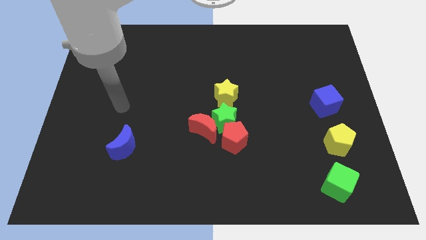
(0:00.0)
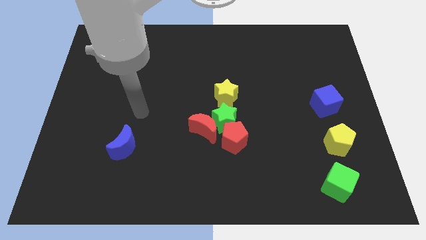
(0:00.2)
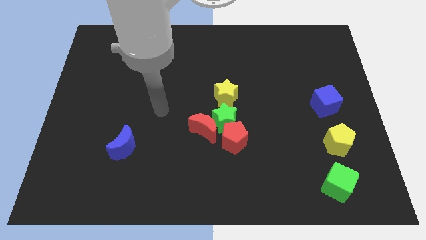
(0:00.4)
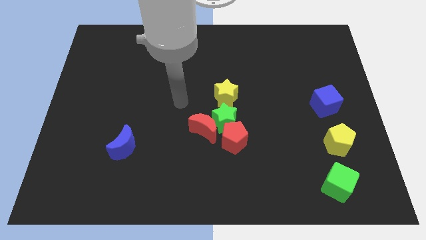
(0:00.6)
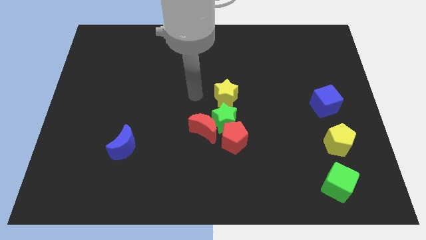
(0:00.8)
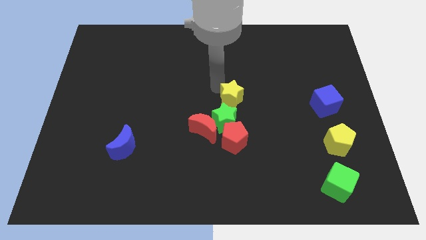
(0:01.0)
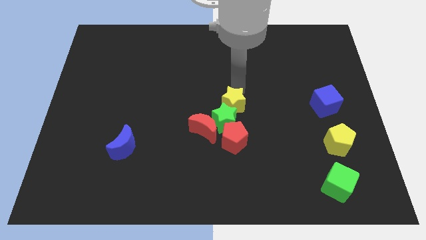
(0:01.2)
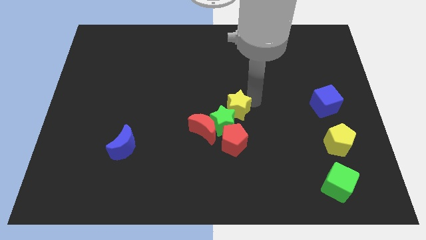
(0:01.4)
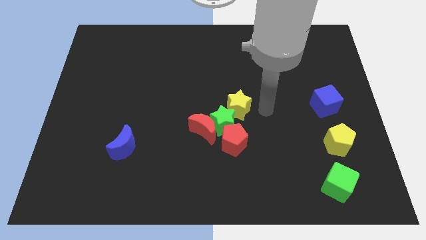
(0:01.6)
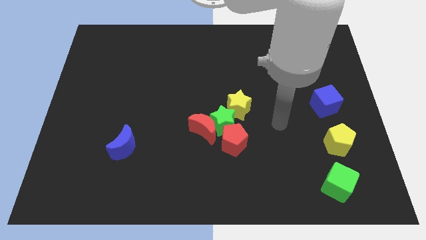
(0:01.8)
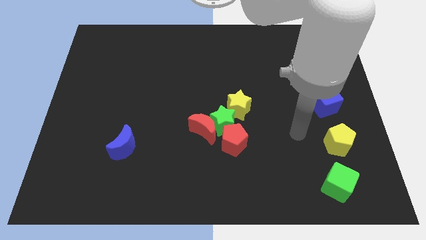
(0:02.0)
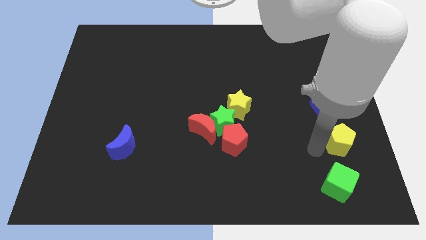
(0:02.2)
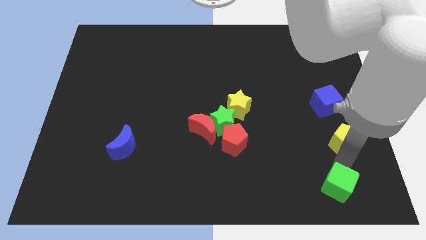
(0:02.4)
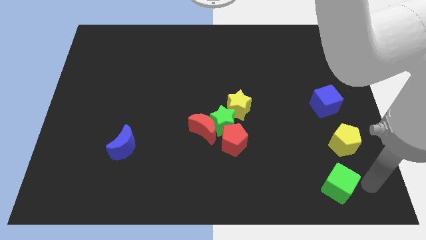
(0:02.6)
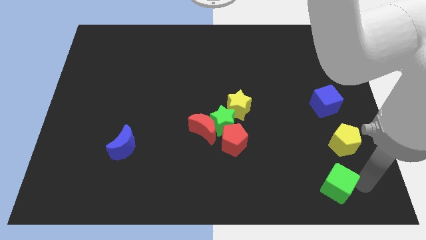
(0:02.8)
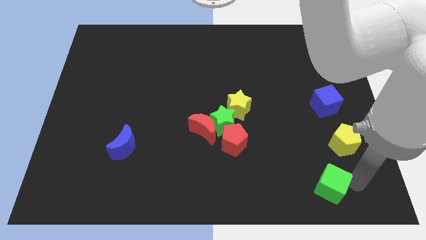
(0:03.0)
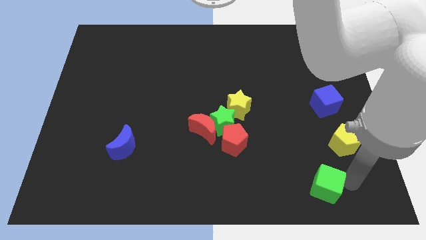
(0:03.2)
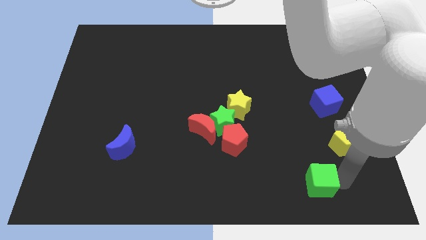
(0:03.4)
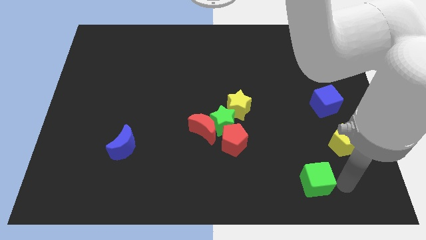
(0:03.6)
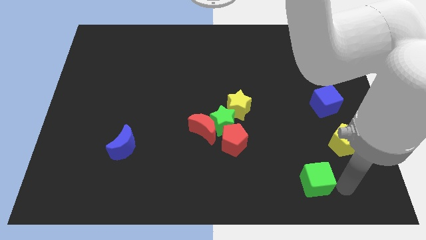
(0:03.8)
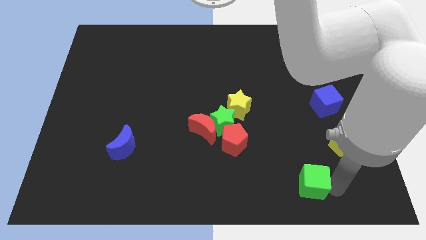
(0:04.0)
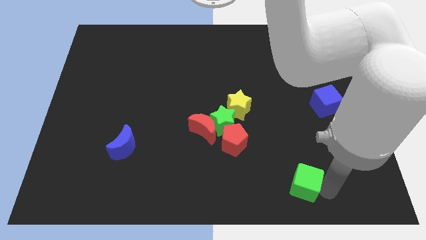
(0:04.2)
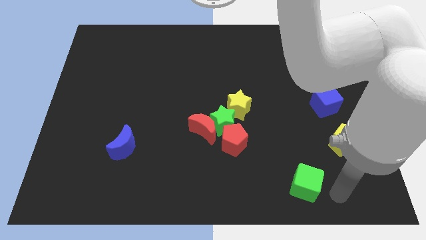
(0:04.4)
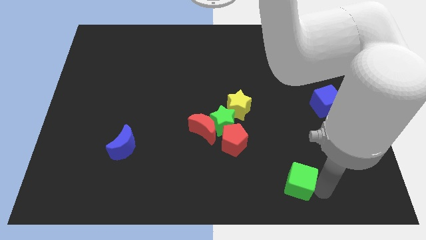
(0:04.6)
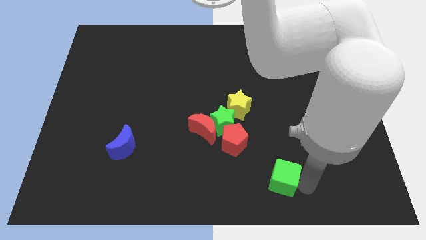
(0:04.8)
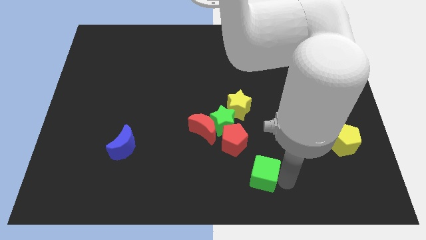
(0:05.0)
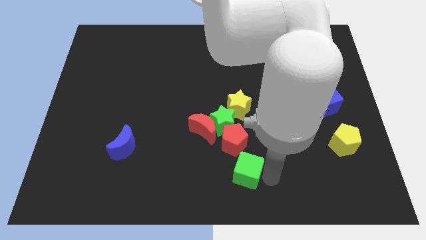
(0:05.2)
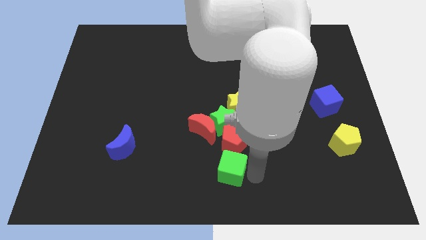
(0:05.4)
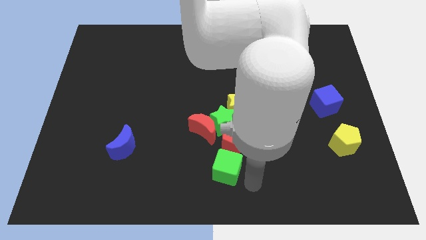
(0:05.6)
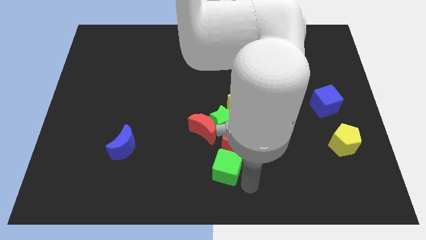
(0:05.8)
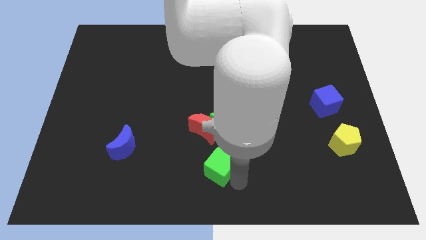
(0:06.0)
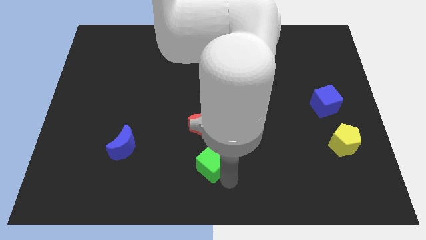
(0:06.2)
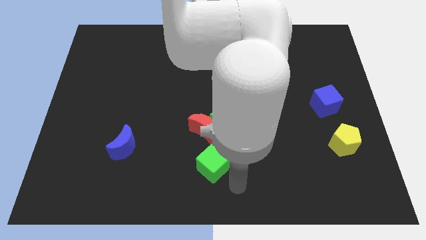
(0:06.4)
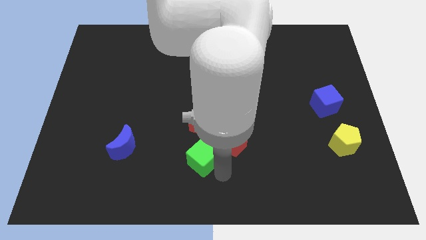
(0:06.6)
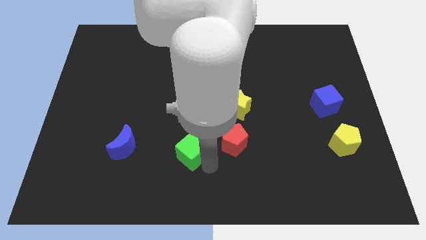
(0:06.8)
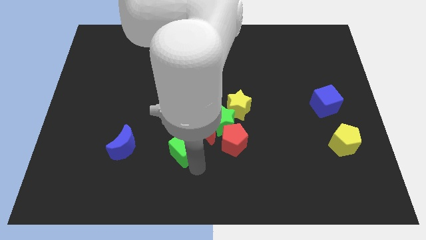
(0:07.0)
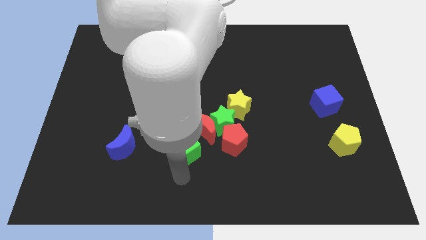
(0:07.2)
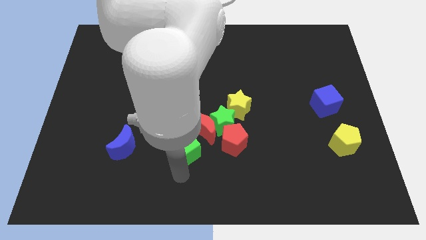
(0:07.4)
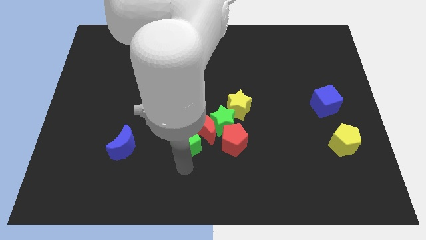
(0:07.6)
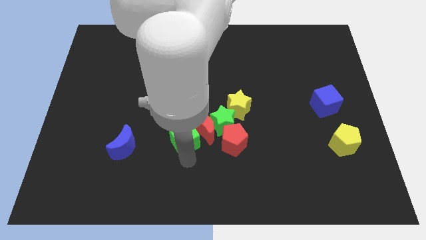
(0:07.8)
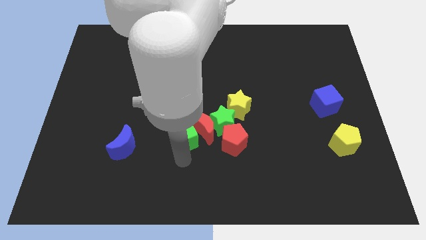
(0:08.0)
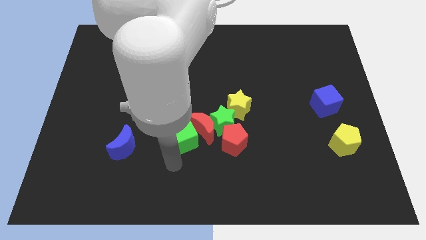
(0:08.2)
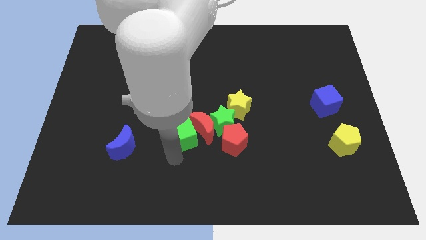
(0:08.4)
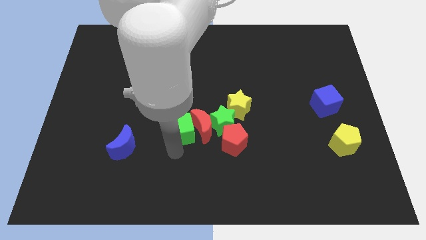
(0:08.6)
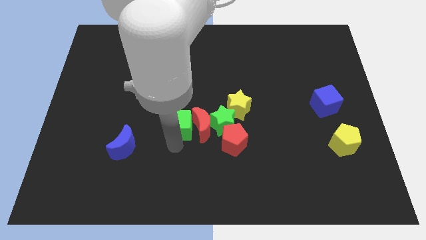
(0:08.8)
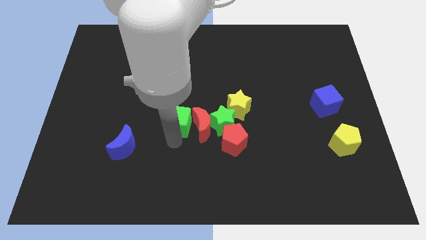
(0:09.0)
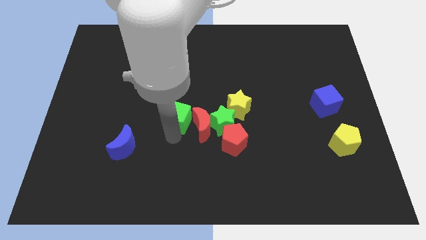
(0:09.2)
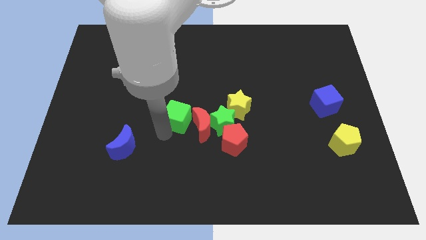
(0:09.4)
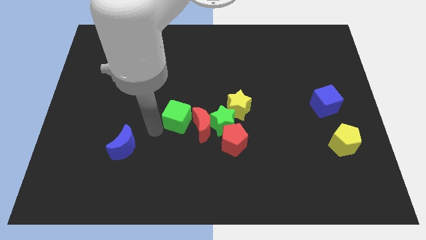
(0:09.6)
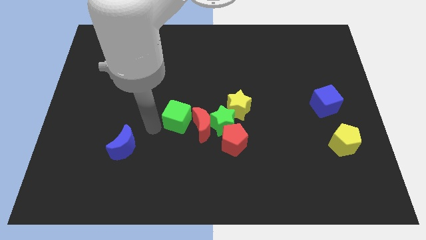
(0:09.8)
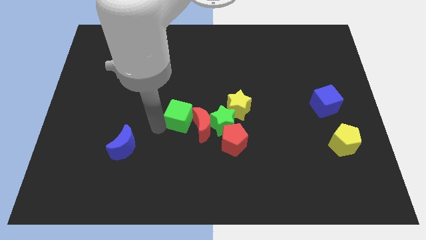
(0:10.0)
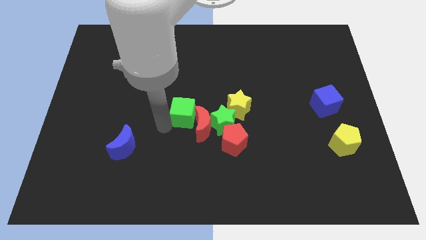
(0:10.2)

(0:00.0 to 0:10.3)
slide the green cube diagonally up and to the left of the green star

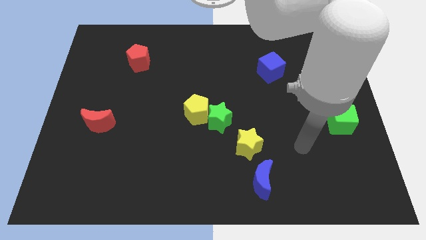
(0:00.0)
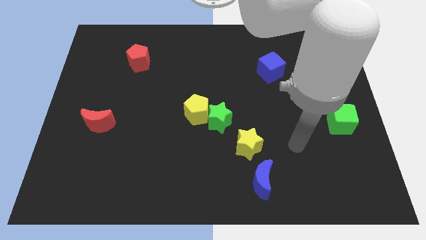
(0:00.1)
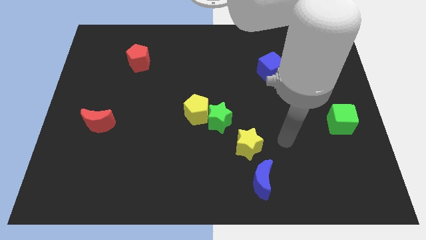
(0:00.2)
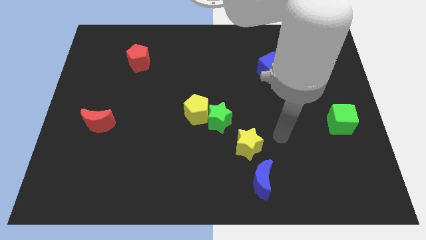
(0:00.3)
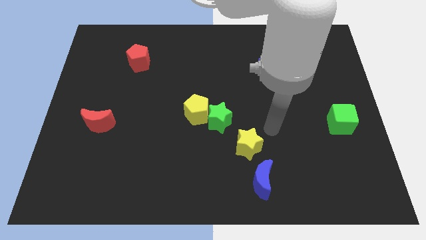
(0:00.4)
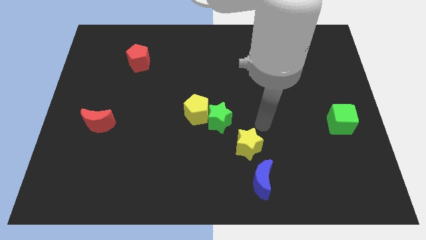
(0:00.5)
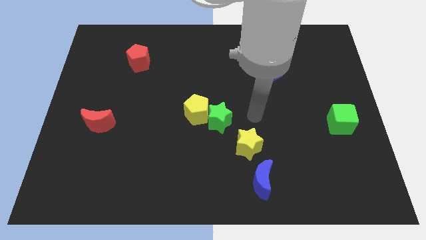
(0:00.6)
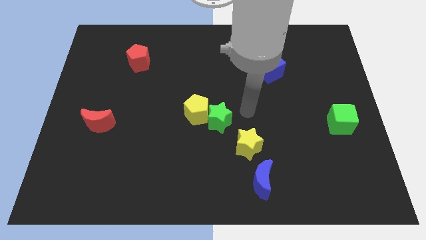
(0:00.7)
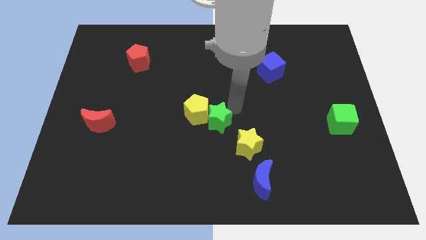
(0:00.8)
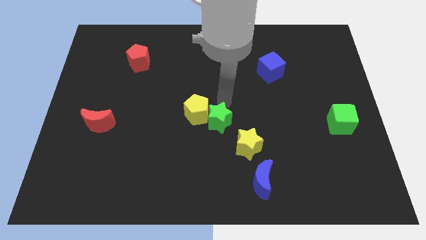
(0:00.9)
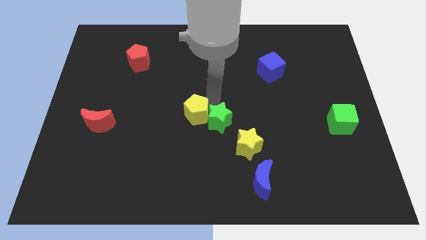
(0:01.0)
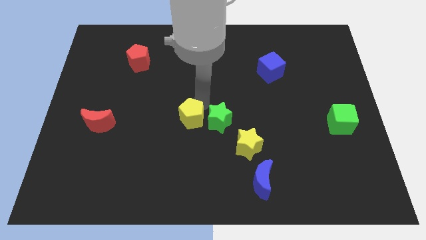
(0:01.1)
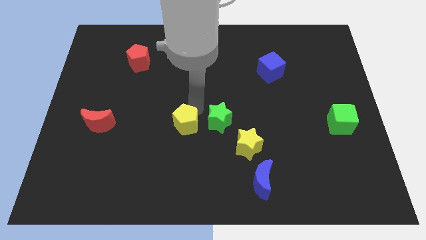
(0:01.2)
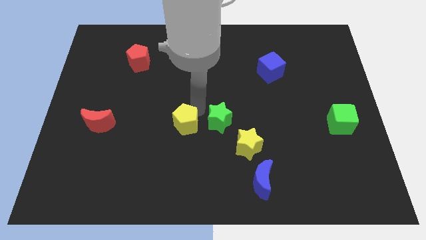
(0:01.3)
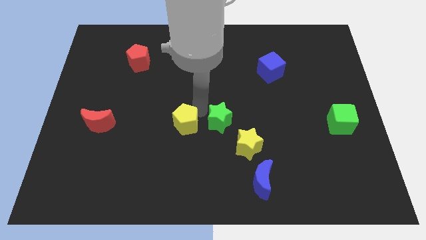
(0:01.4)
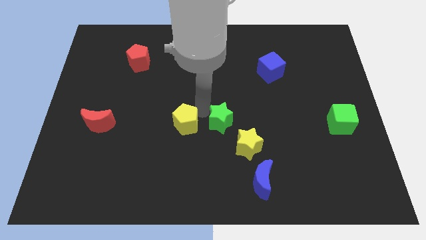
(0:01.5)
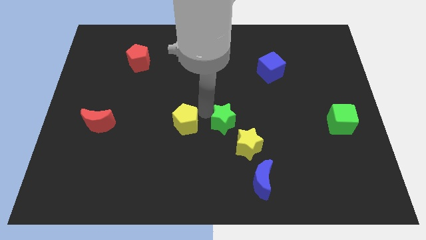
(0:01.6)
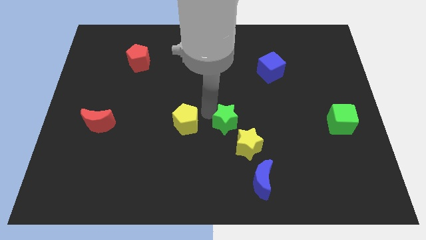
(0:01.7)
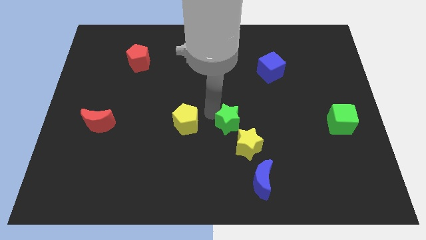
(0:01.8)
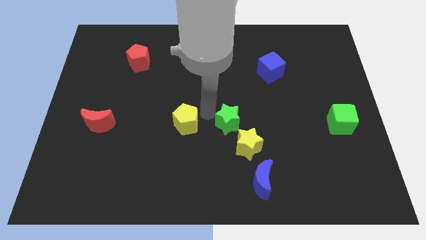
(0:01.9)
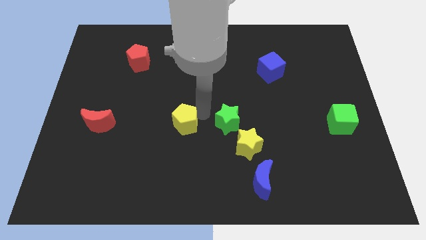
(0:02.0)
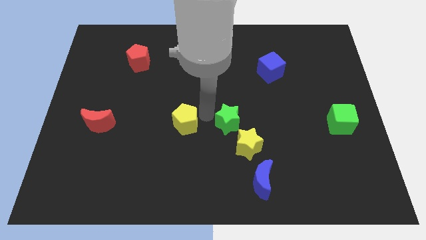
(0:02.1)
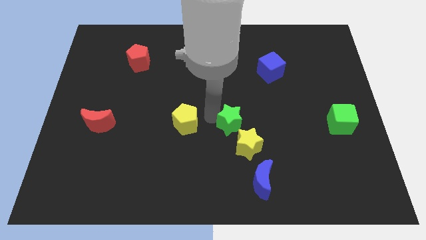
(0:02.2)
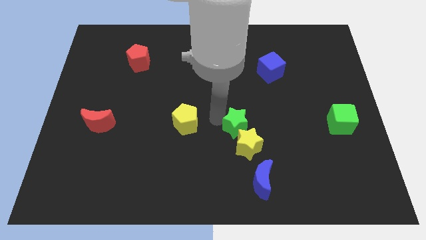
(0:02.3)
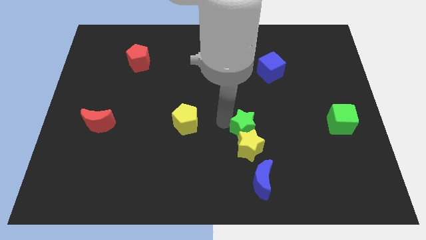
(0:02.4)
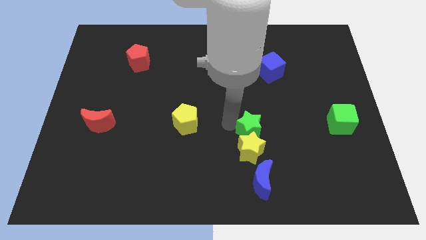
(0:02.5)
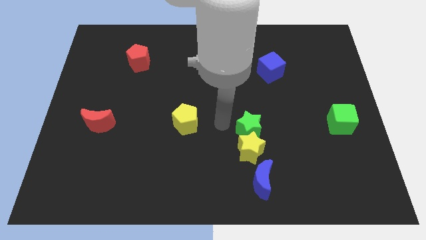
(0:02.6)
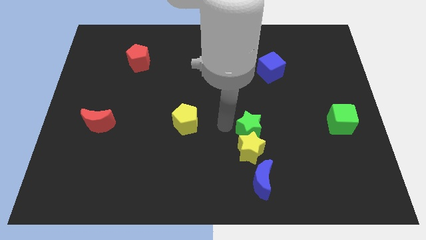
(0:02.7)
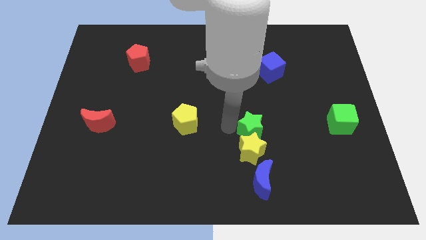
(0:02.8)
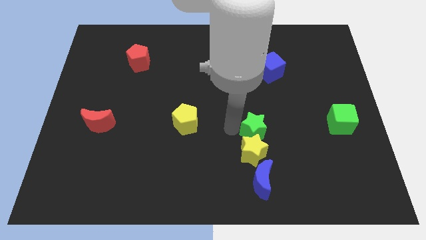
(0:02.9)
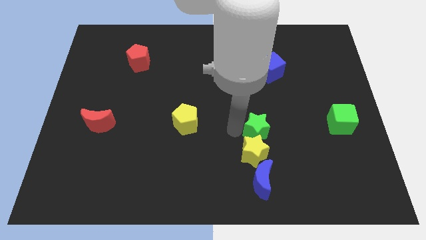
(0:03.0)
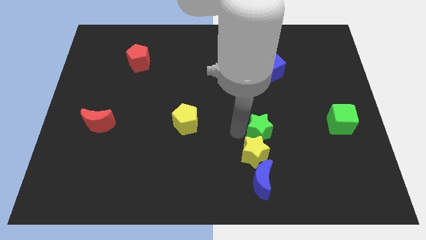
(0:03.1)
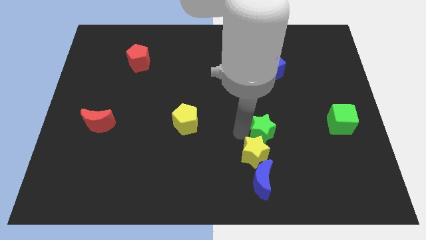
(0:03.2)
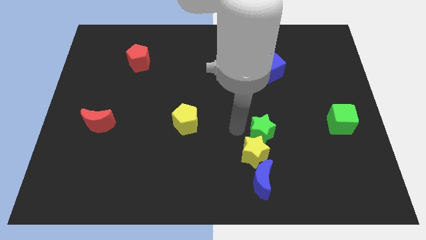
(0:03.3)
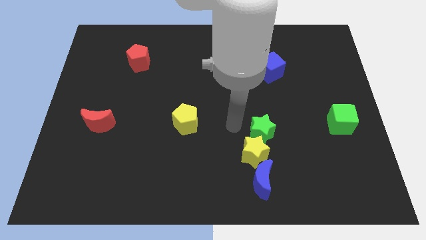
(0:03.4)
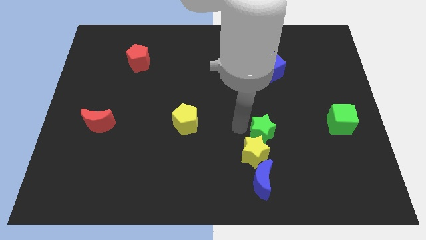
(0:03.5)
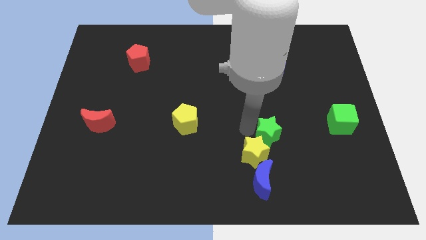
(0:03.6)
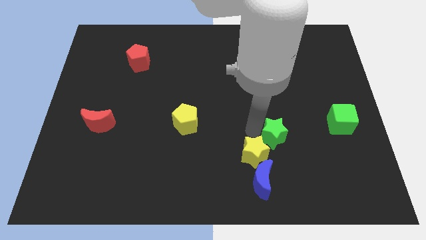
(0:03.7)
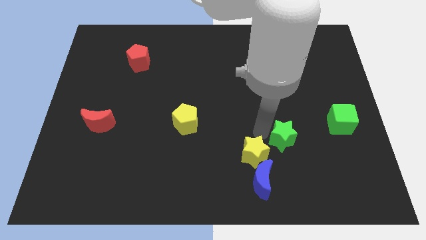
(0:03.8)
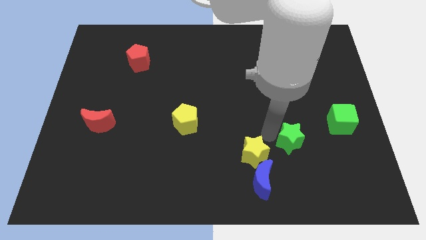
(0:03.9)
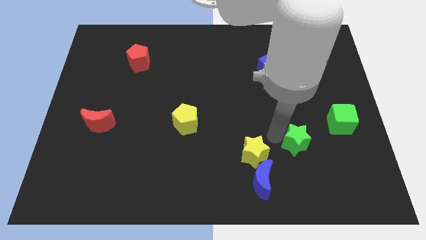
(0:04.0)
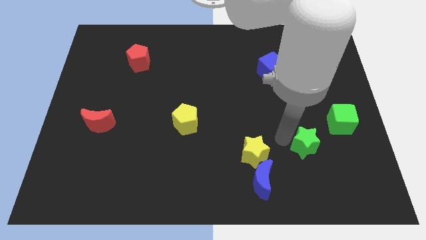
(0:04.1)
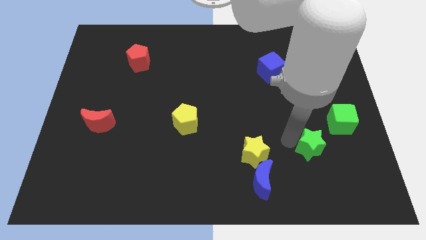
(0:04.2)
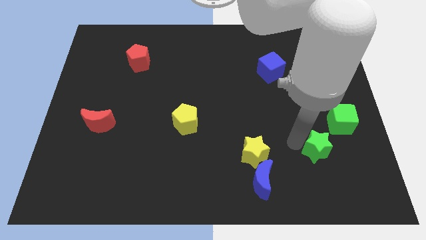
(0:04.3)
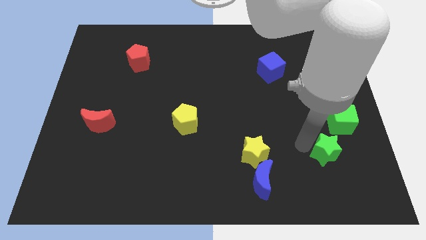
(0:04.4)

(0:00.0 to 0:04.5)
push the green star to the bottom side of the green cube
